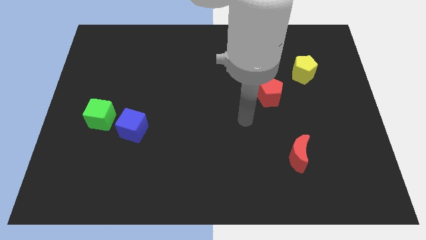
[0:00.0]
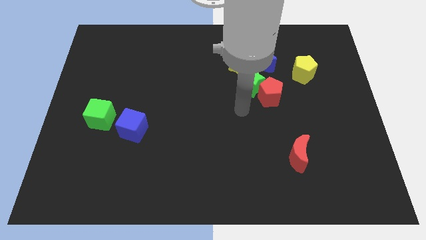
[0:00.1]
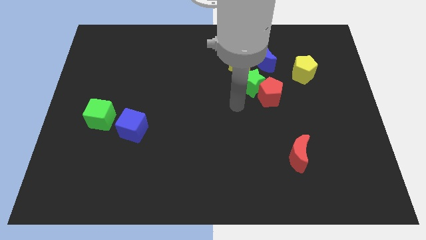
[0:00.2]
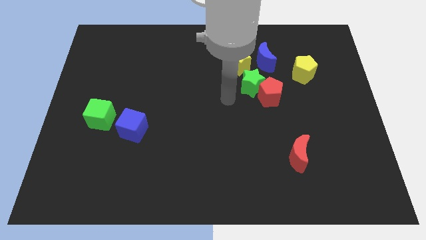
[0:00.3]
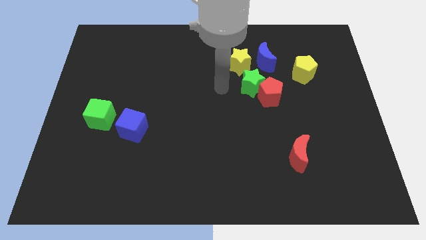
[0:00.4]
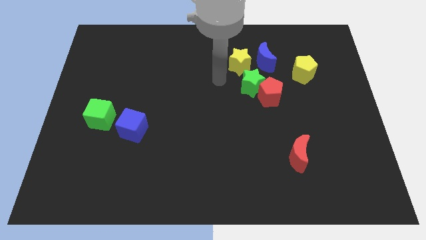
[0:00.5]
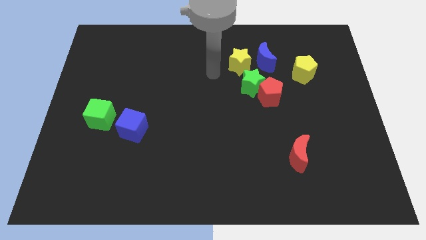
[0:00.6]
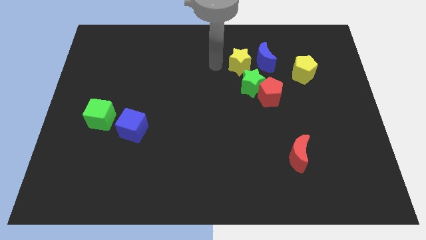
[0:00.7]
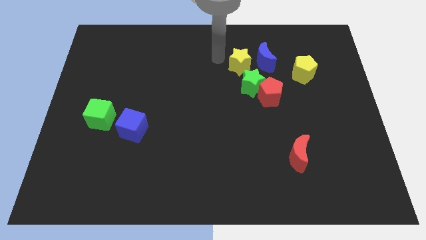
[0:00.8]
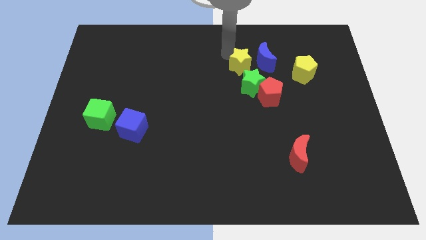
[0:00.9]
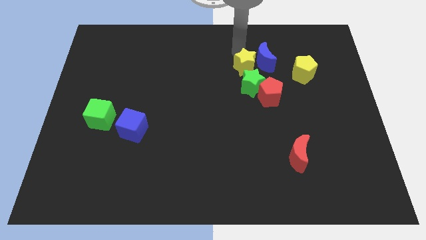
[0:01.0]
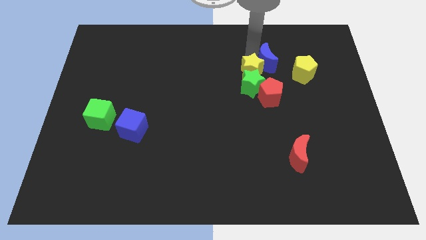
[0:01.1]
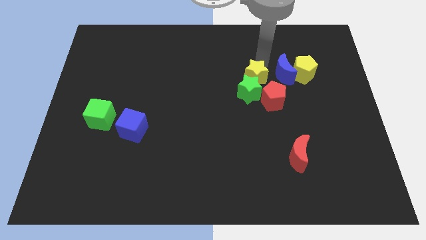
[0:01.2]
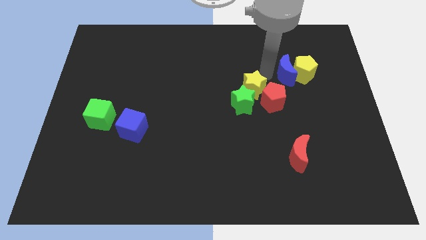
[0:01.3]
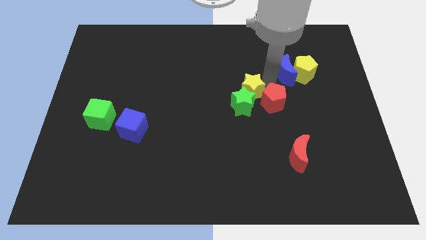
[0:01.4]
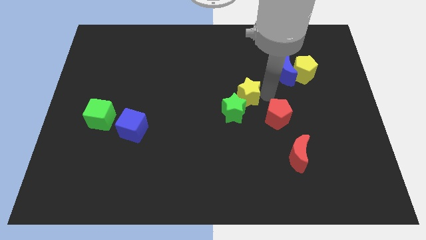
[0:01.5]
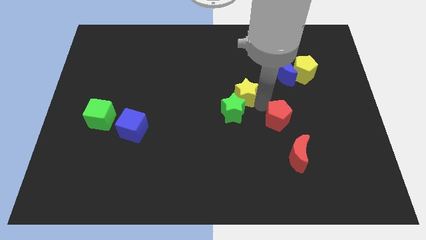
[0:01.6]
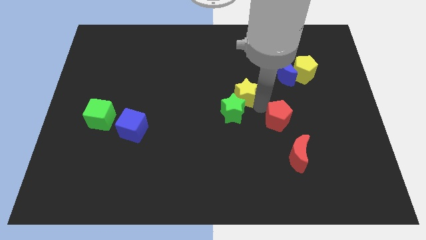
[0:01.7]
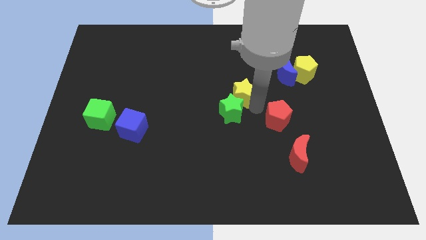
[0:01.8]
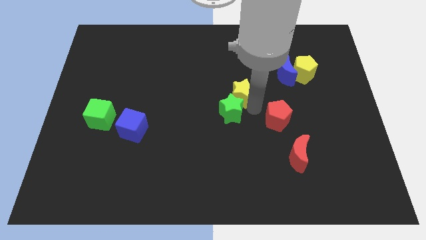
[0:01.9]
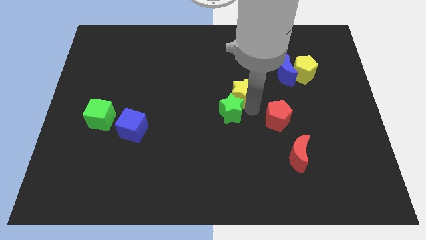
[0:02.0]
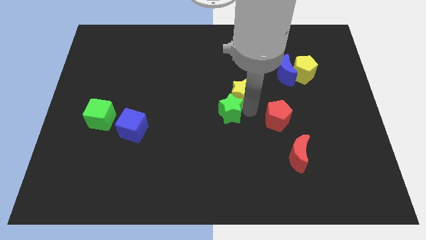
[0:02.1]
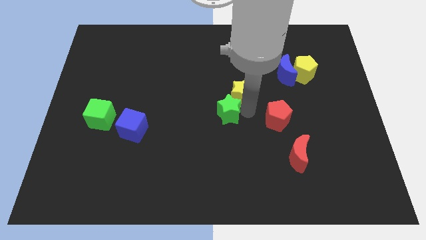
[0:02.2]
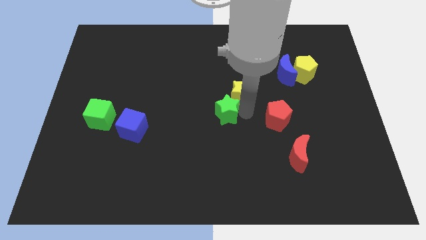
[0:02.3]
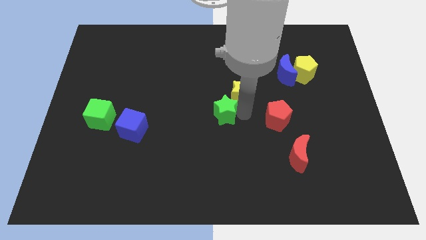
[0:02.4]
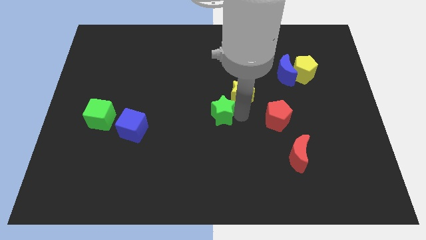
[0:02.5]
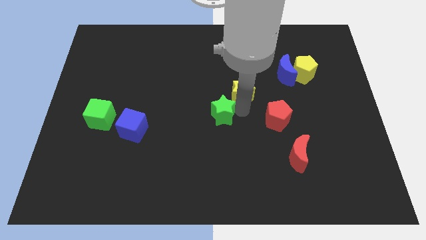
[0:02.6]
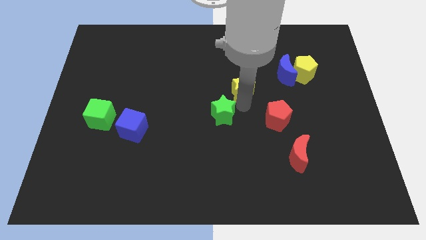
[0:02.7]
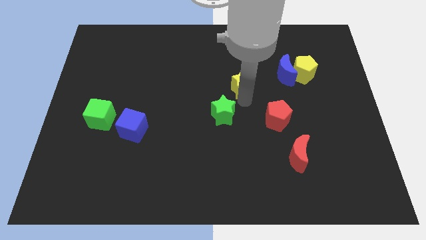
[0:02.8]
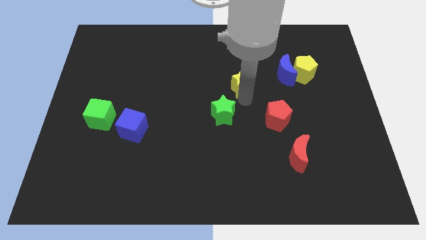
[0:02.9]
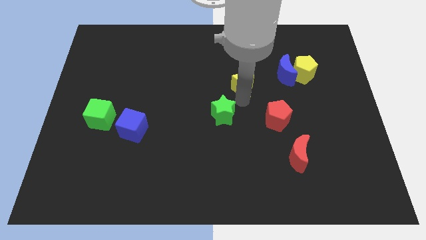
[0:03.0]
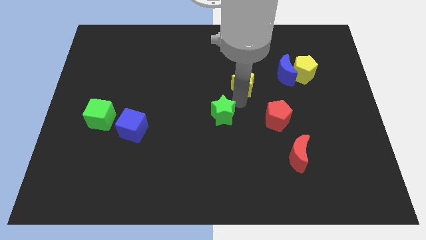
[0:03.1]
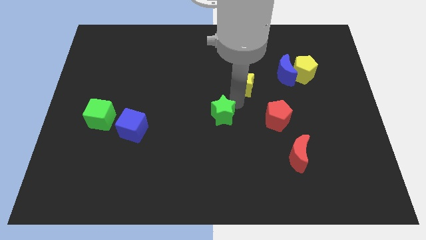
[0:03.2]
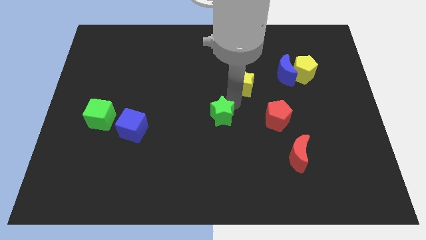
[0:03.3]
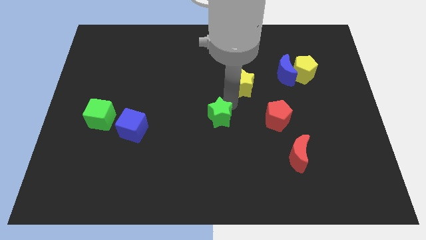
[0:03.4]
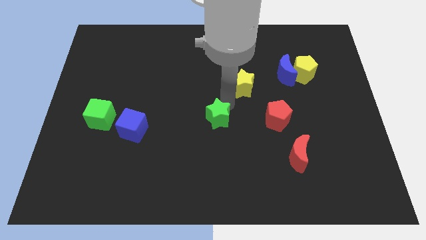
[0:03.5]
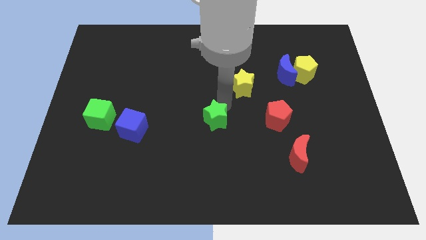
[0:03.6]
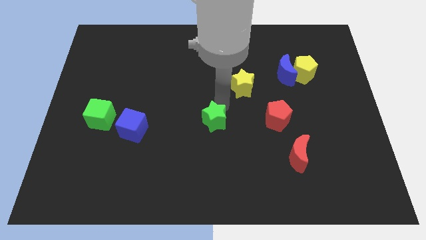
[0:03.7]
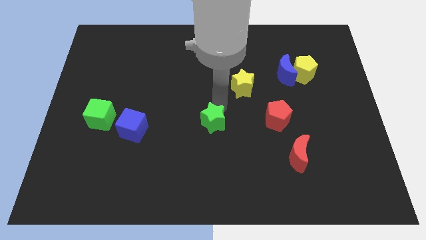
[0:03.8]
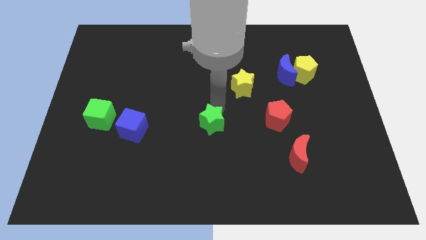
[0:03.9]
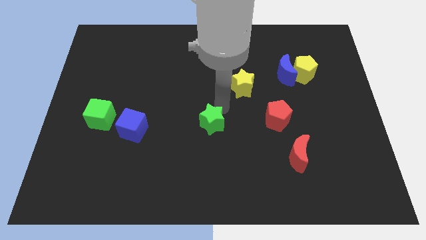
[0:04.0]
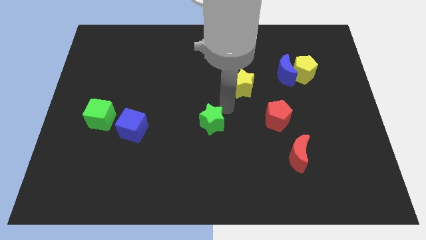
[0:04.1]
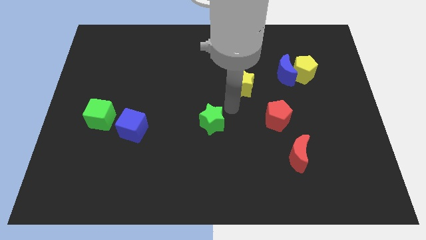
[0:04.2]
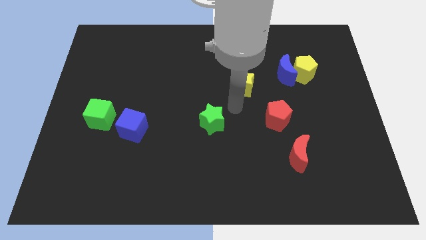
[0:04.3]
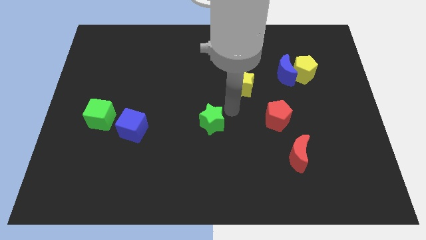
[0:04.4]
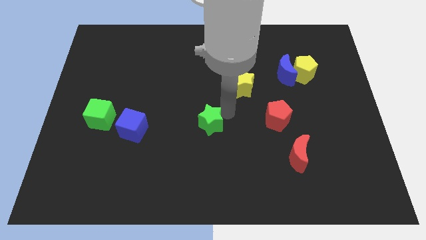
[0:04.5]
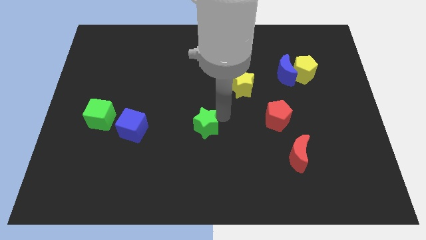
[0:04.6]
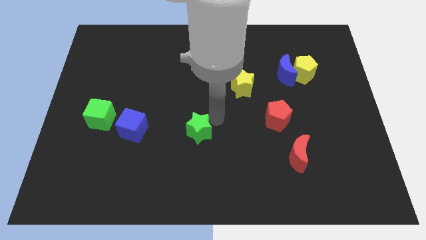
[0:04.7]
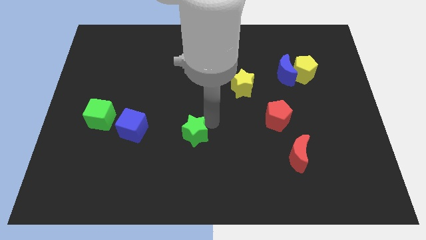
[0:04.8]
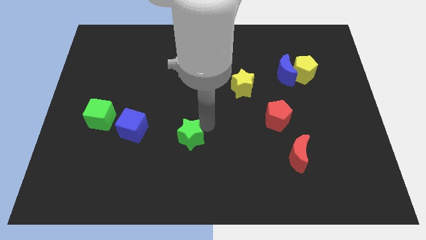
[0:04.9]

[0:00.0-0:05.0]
push the green star down and left diagonally

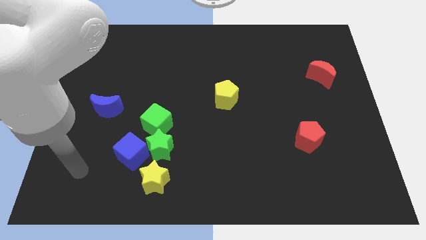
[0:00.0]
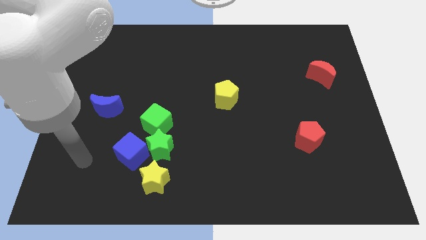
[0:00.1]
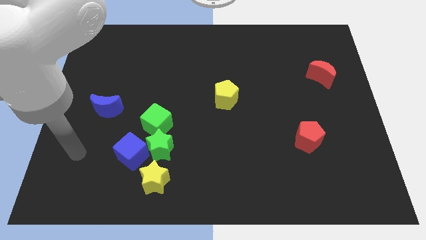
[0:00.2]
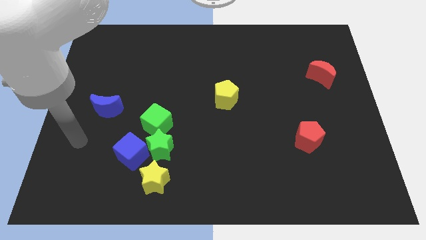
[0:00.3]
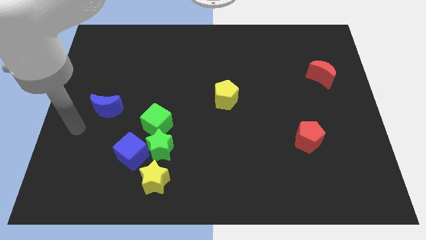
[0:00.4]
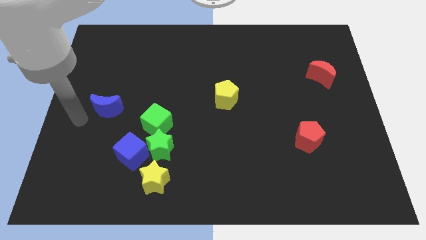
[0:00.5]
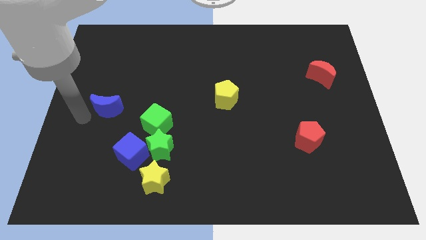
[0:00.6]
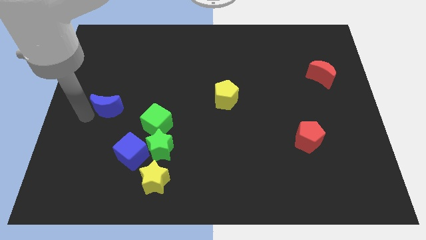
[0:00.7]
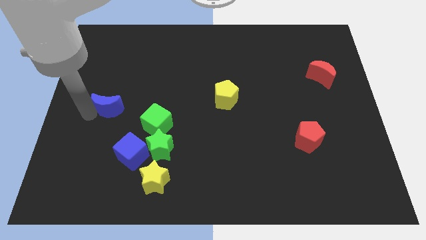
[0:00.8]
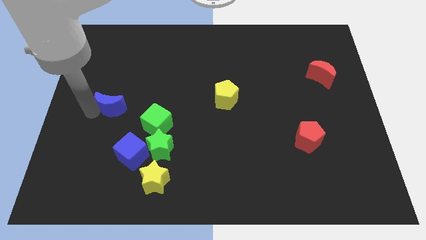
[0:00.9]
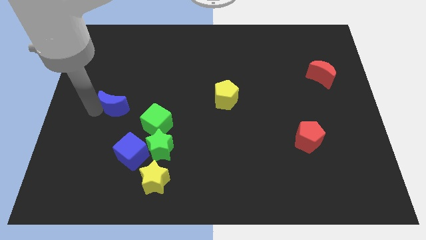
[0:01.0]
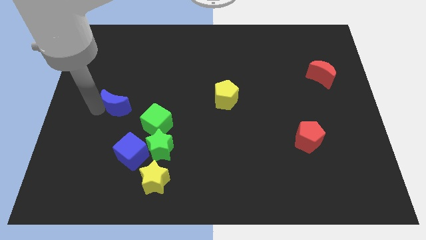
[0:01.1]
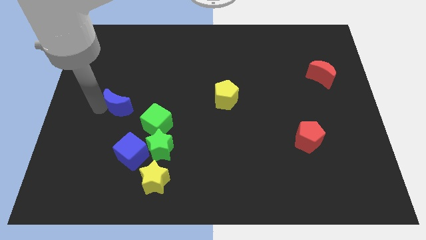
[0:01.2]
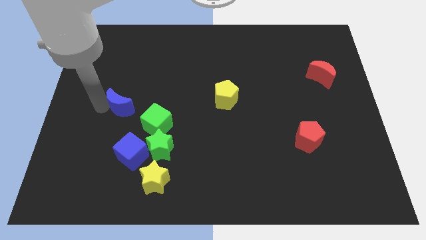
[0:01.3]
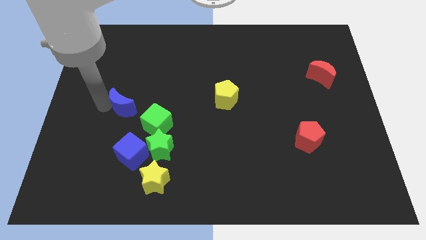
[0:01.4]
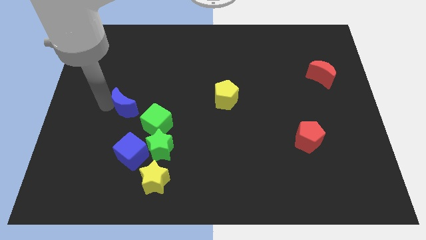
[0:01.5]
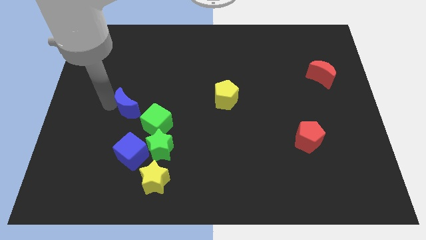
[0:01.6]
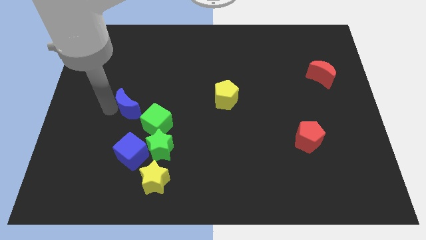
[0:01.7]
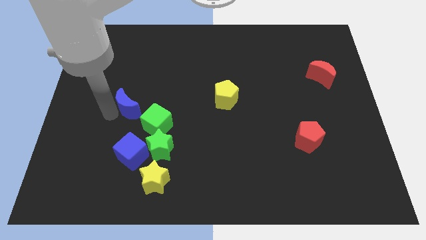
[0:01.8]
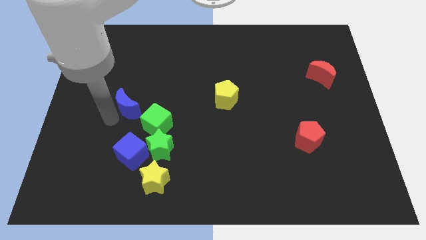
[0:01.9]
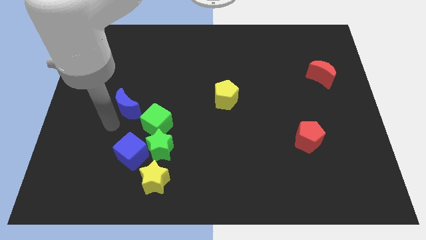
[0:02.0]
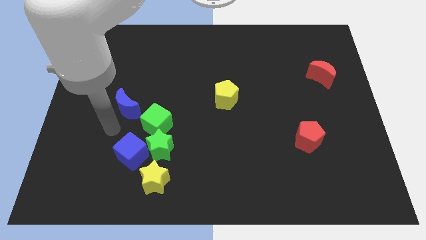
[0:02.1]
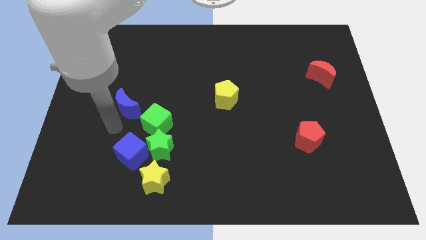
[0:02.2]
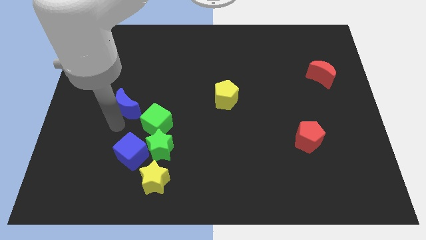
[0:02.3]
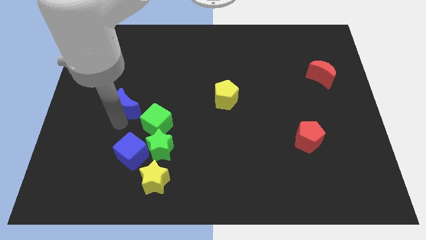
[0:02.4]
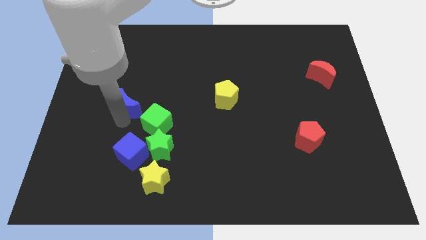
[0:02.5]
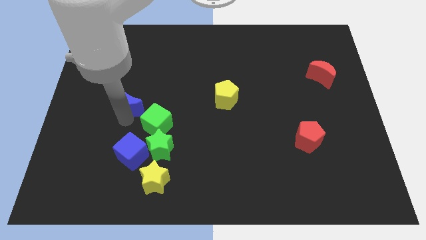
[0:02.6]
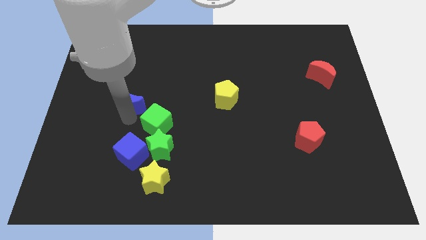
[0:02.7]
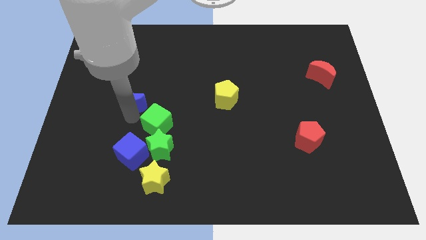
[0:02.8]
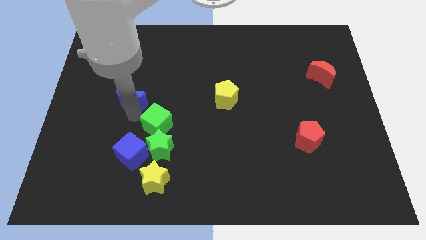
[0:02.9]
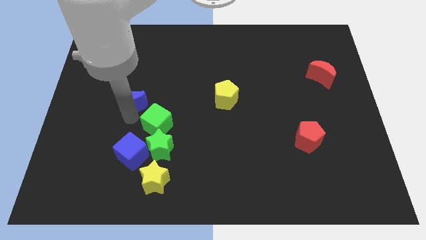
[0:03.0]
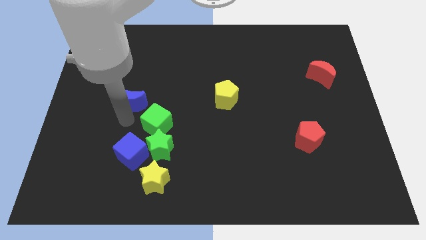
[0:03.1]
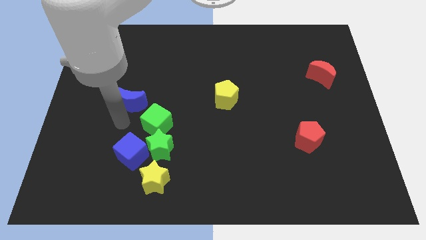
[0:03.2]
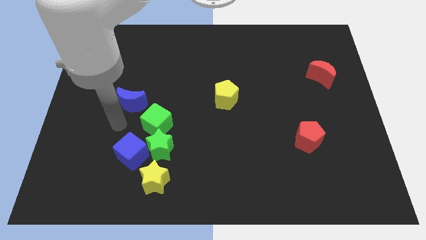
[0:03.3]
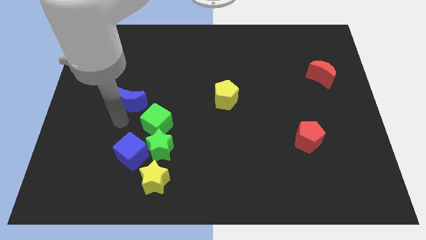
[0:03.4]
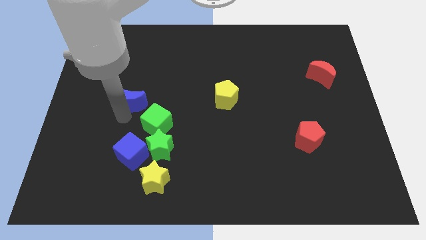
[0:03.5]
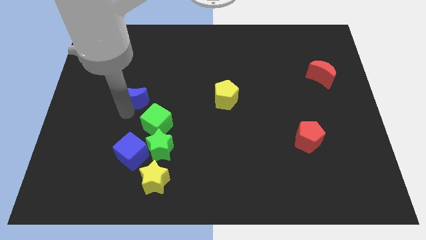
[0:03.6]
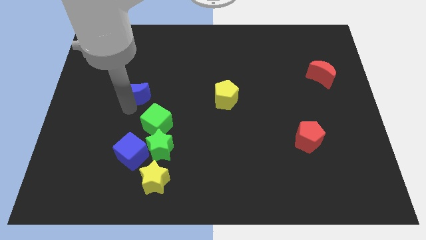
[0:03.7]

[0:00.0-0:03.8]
slightly push the blue moon up and then right
